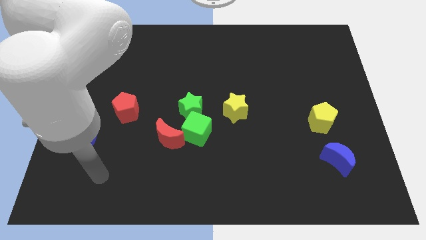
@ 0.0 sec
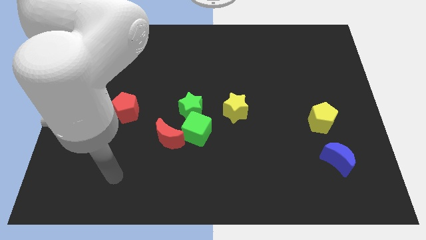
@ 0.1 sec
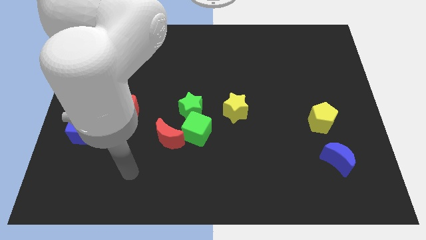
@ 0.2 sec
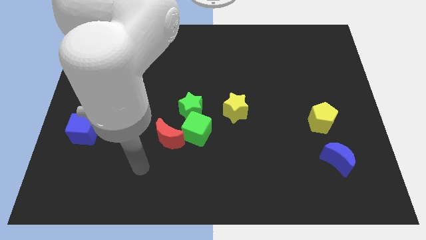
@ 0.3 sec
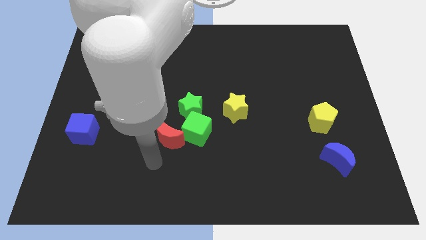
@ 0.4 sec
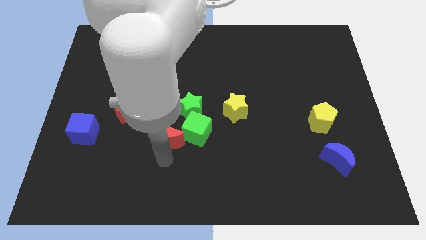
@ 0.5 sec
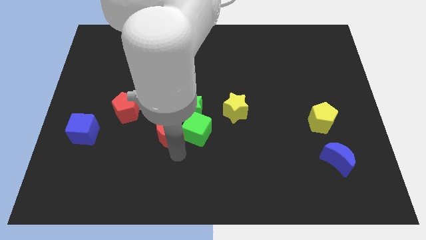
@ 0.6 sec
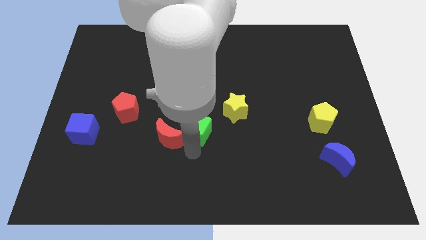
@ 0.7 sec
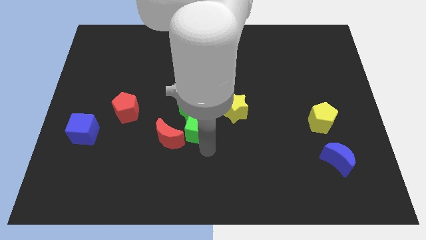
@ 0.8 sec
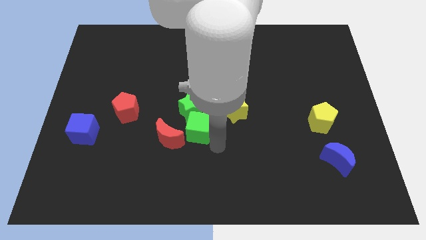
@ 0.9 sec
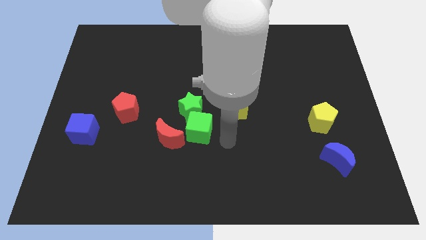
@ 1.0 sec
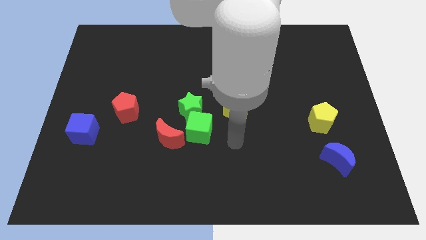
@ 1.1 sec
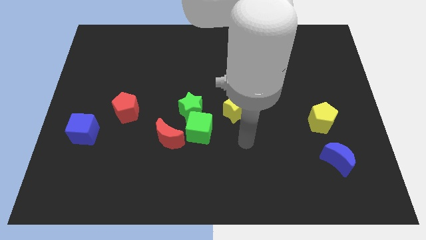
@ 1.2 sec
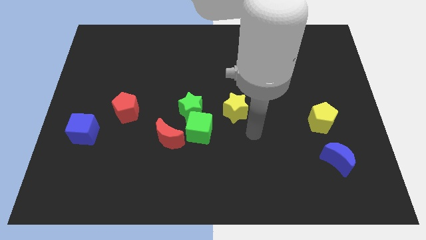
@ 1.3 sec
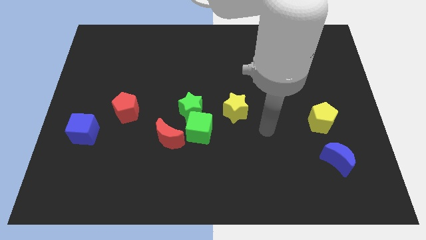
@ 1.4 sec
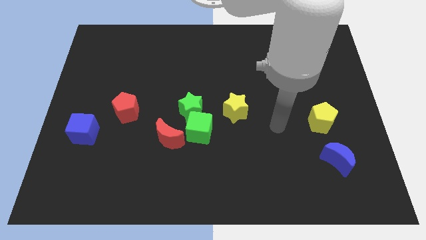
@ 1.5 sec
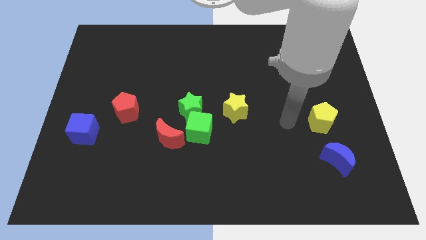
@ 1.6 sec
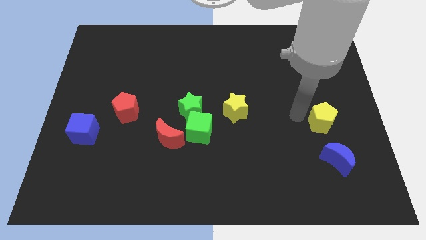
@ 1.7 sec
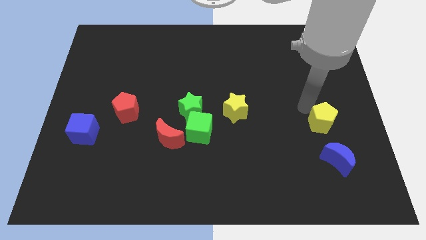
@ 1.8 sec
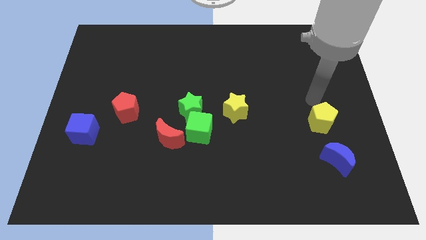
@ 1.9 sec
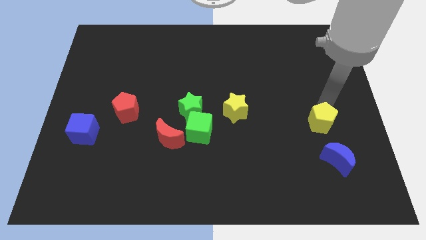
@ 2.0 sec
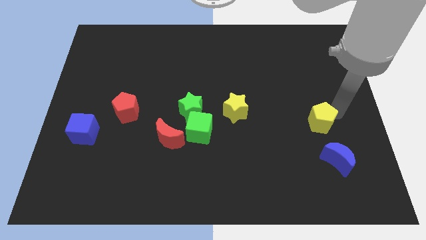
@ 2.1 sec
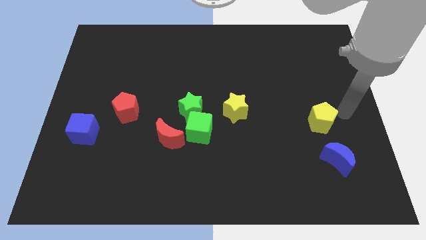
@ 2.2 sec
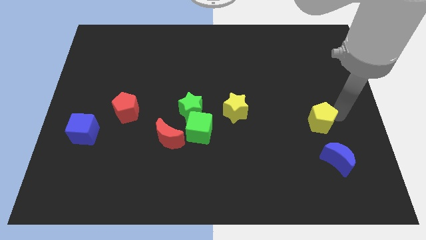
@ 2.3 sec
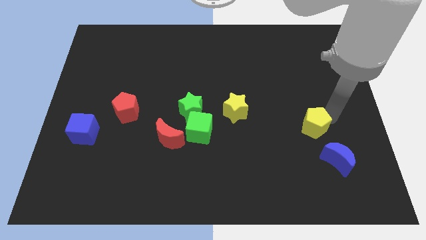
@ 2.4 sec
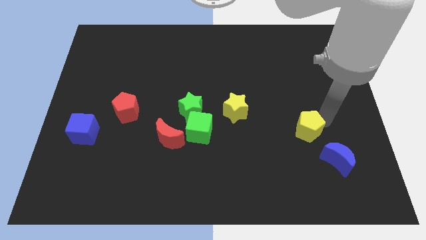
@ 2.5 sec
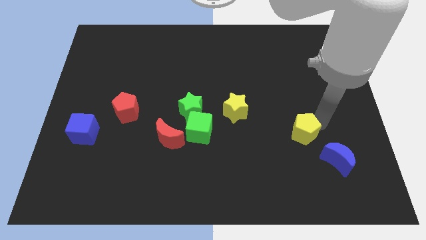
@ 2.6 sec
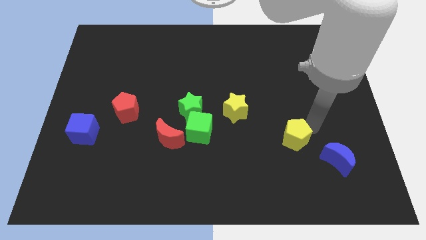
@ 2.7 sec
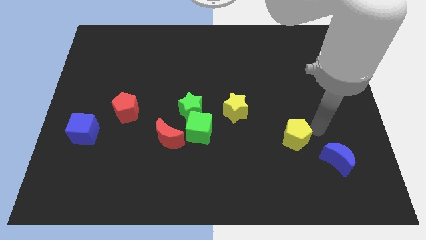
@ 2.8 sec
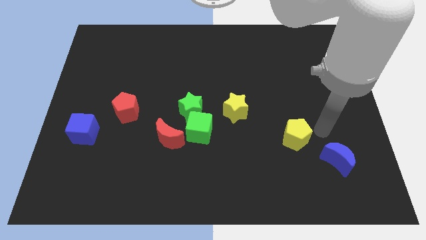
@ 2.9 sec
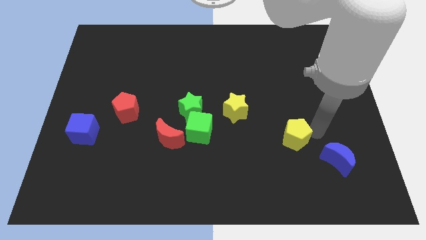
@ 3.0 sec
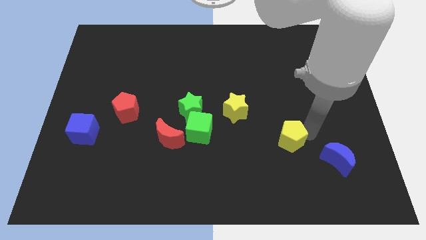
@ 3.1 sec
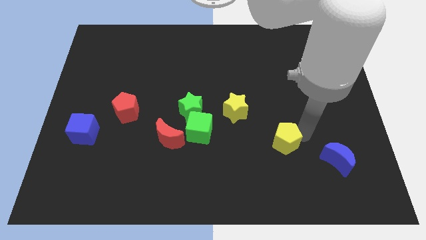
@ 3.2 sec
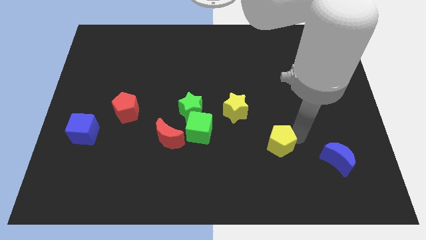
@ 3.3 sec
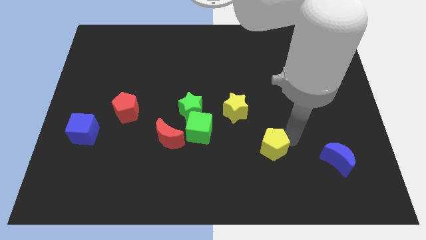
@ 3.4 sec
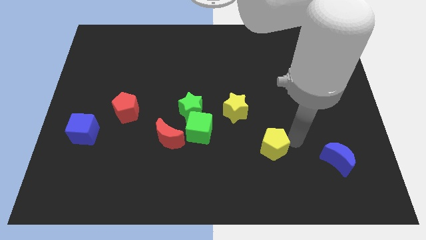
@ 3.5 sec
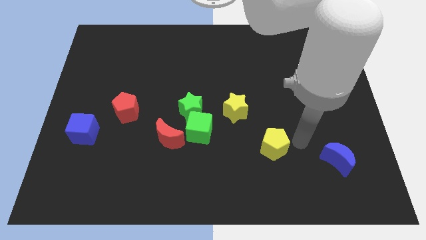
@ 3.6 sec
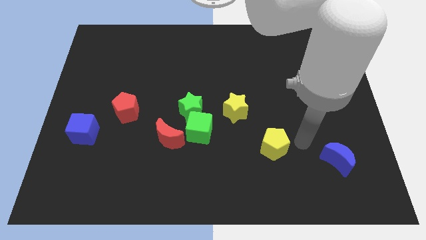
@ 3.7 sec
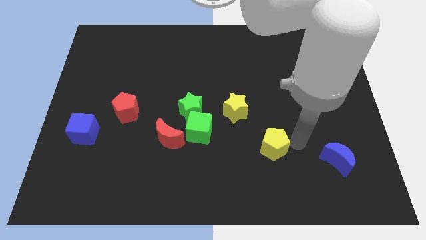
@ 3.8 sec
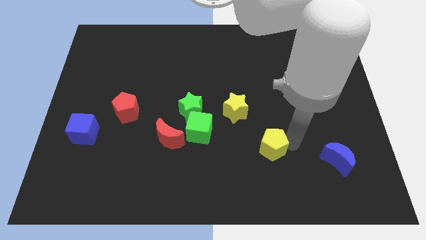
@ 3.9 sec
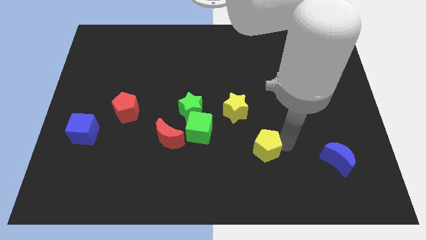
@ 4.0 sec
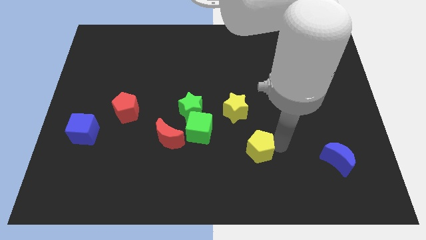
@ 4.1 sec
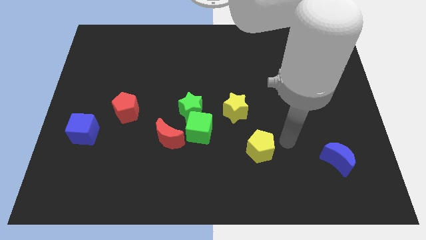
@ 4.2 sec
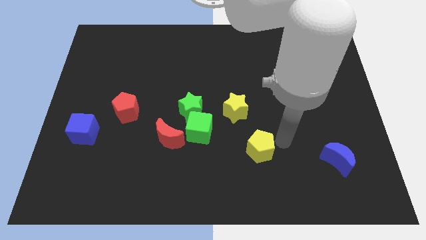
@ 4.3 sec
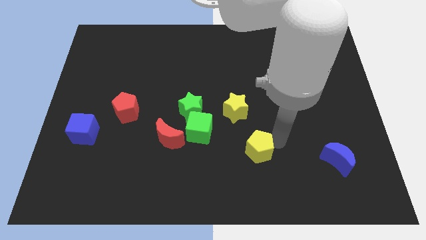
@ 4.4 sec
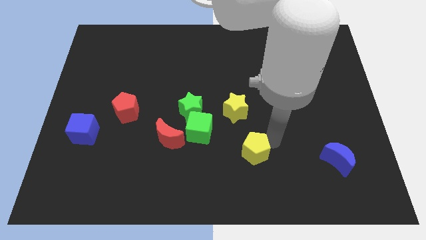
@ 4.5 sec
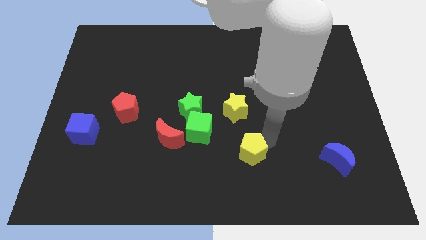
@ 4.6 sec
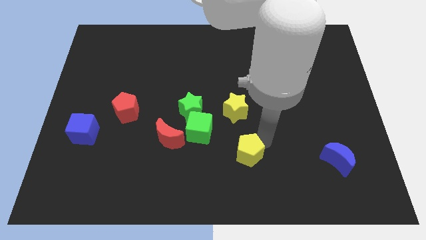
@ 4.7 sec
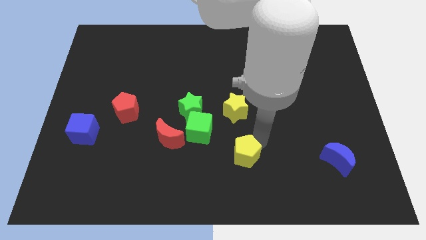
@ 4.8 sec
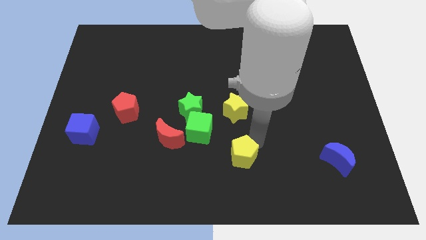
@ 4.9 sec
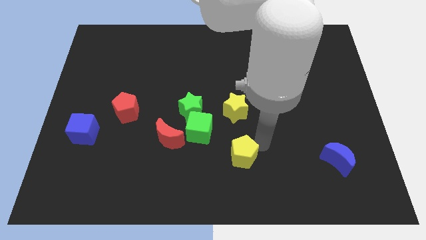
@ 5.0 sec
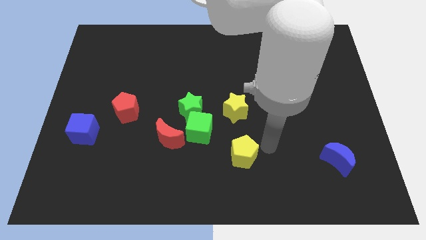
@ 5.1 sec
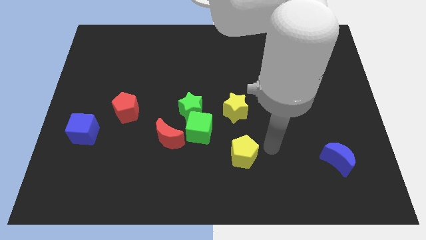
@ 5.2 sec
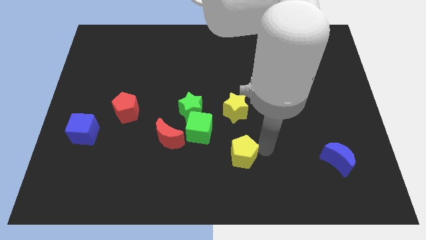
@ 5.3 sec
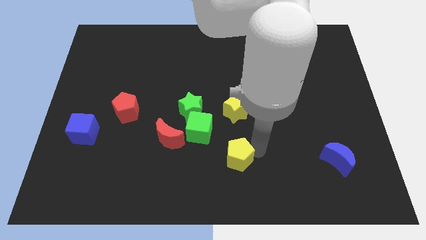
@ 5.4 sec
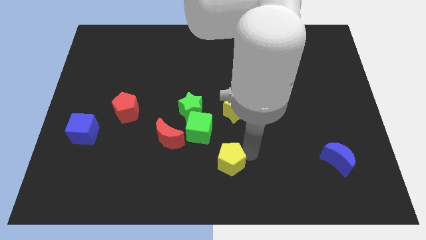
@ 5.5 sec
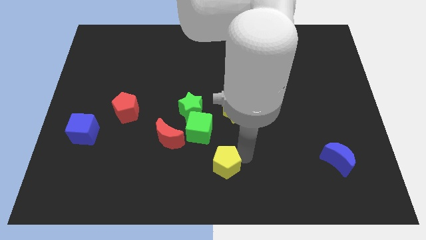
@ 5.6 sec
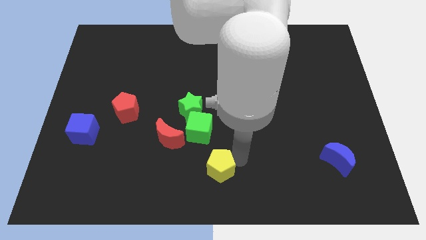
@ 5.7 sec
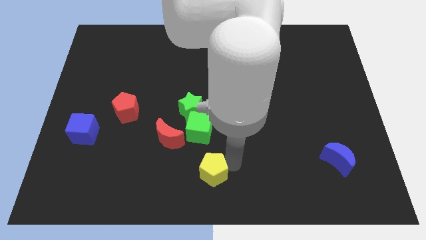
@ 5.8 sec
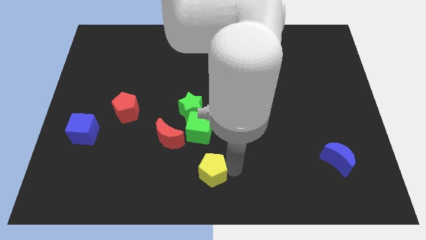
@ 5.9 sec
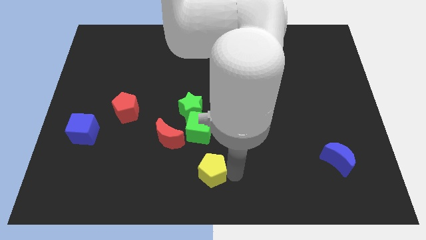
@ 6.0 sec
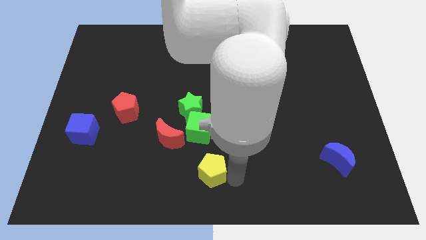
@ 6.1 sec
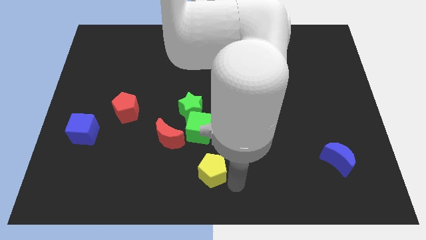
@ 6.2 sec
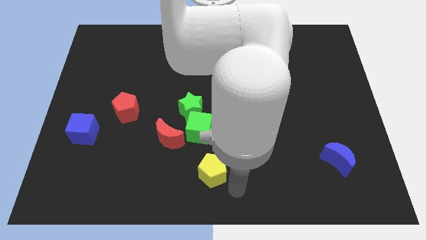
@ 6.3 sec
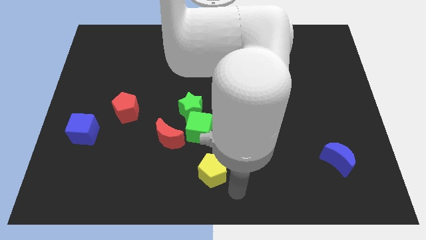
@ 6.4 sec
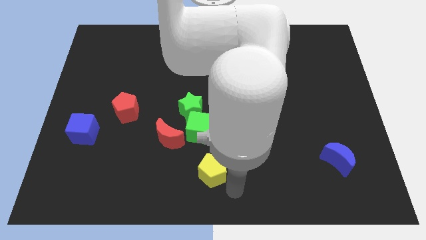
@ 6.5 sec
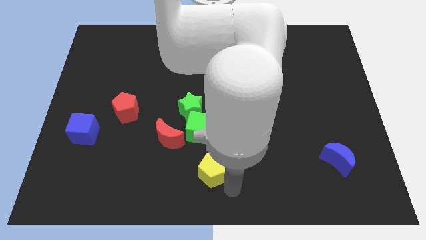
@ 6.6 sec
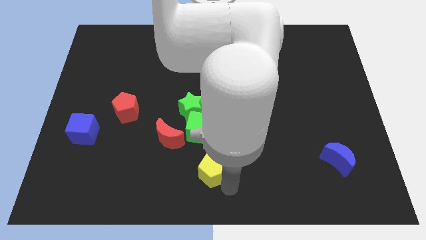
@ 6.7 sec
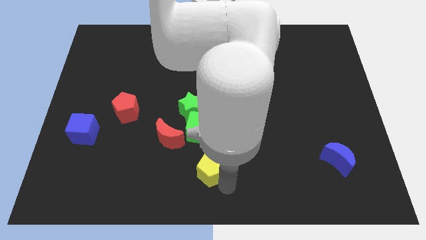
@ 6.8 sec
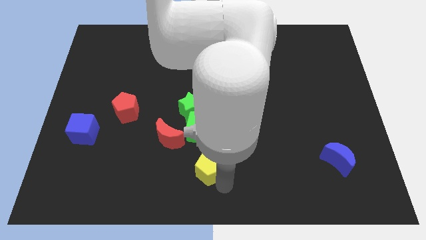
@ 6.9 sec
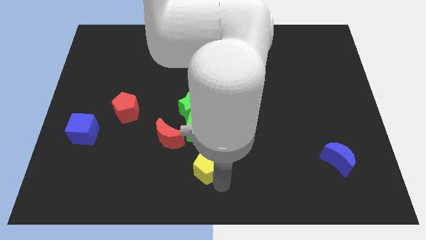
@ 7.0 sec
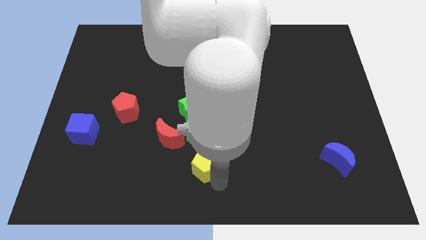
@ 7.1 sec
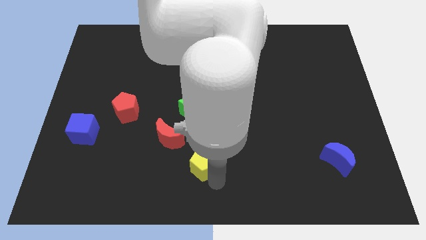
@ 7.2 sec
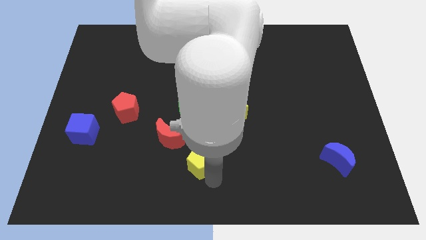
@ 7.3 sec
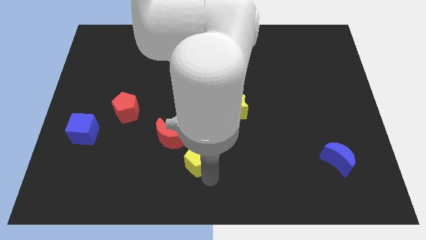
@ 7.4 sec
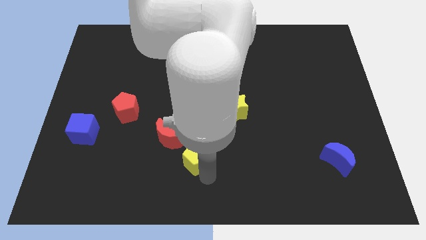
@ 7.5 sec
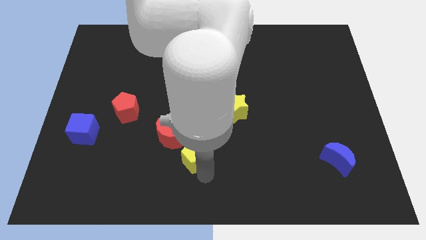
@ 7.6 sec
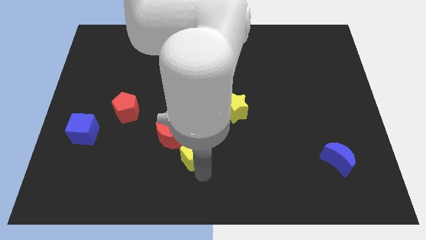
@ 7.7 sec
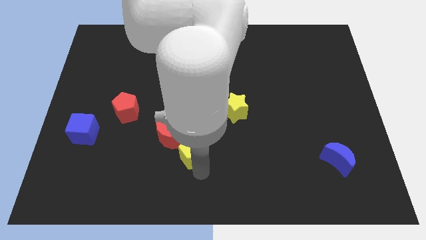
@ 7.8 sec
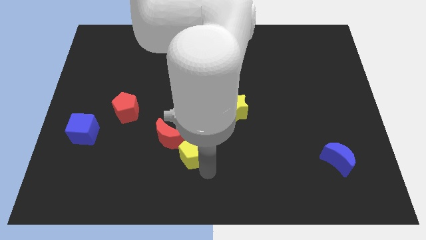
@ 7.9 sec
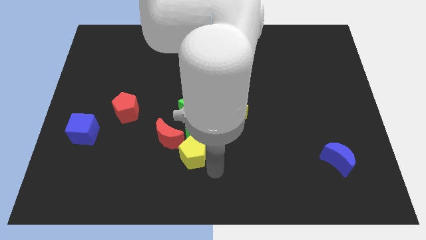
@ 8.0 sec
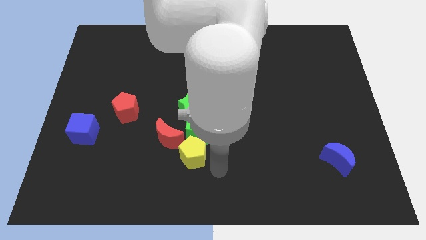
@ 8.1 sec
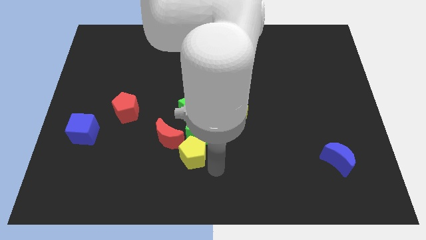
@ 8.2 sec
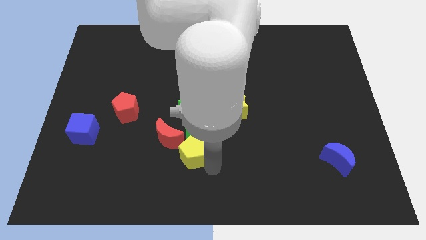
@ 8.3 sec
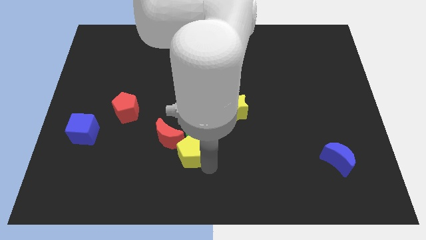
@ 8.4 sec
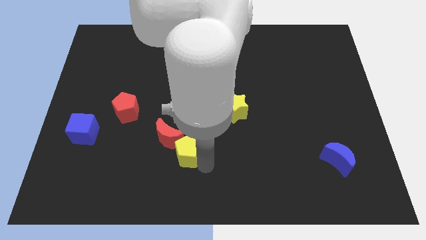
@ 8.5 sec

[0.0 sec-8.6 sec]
slide the yellow pentagon towards the red moon
